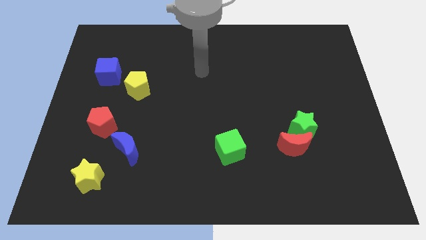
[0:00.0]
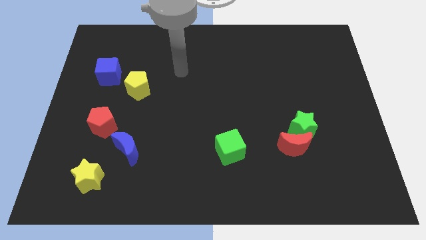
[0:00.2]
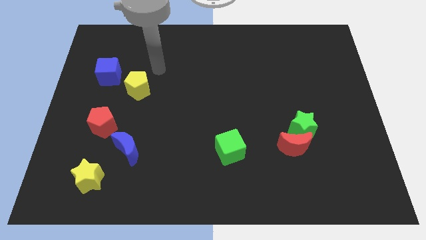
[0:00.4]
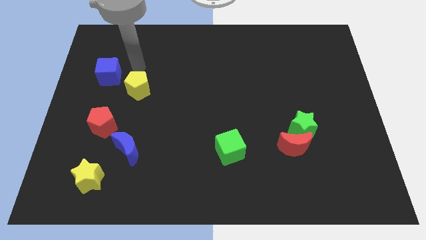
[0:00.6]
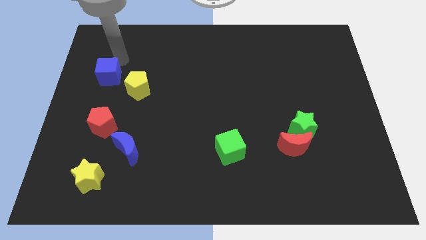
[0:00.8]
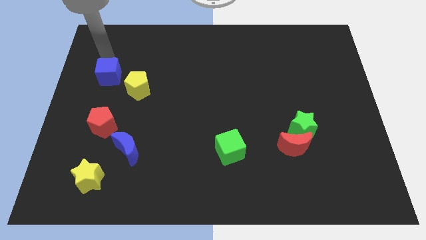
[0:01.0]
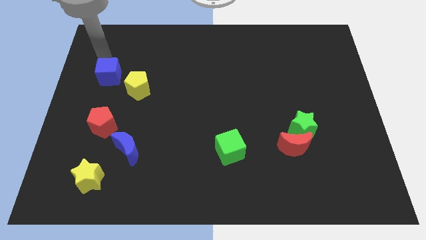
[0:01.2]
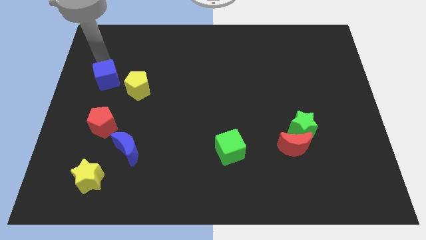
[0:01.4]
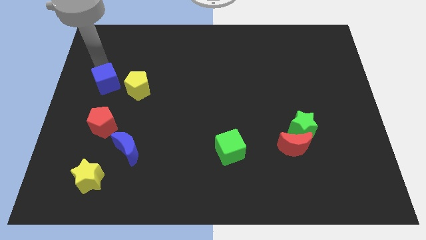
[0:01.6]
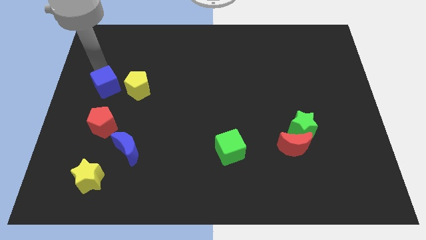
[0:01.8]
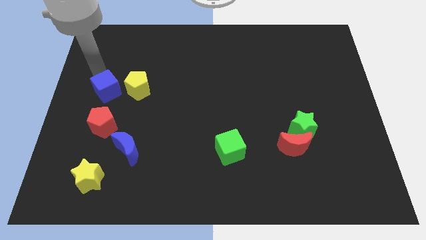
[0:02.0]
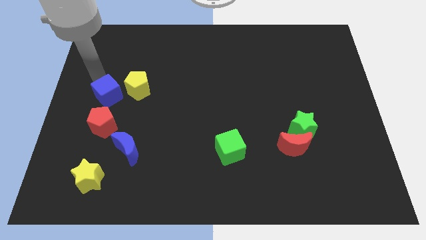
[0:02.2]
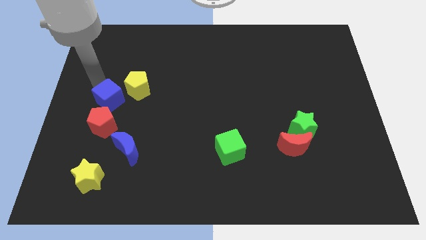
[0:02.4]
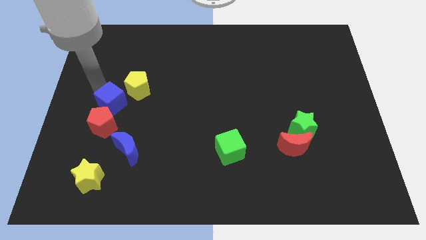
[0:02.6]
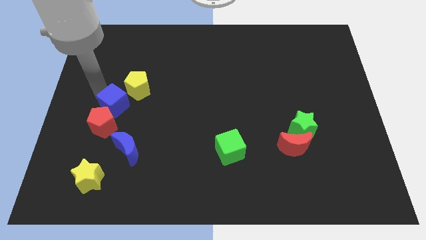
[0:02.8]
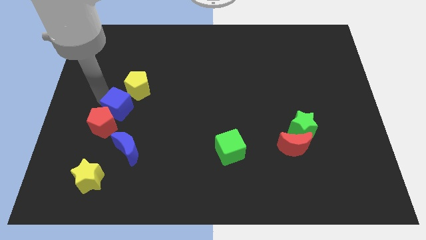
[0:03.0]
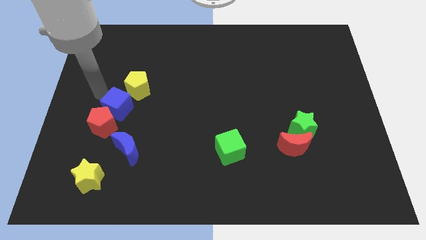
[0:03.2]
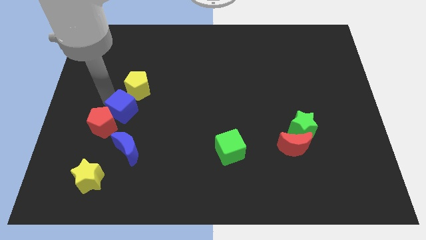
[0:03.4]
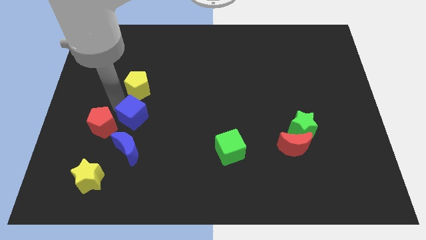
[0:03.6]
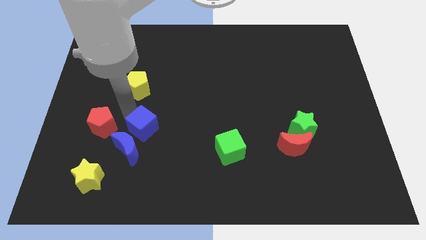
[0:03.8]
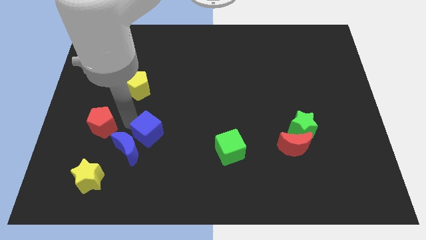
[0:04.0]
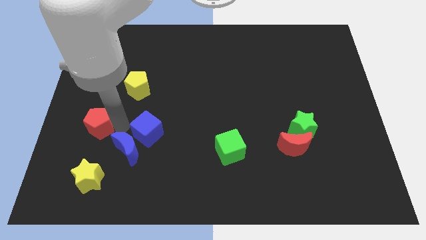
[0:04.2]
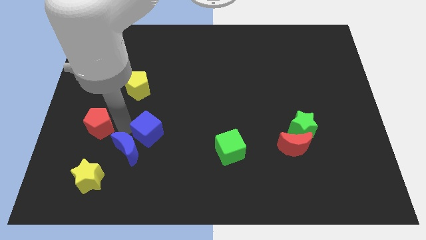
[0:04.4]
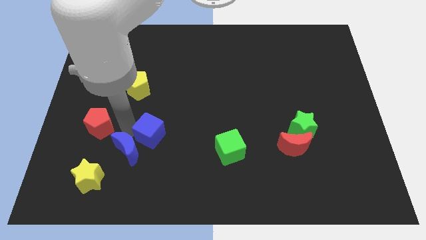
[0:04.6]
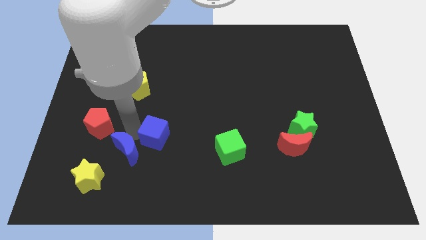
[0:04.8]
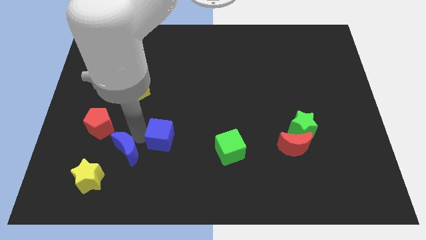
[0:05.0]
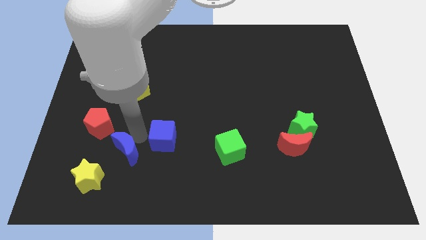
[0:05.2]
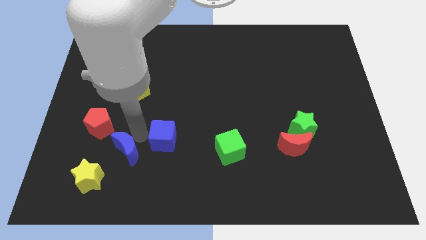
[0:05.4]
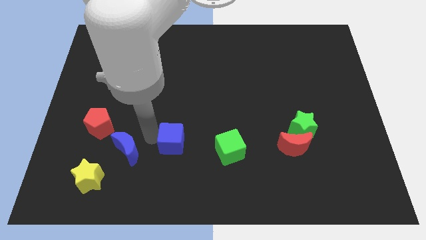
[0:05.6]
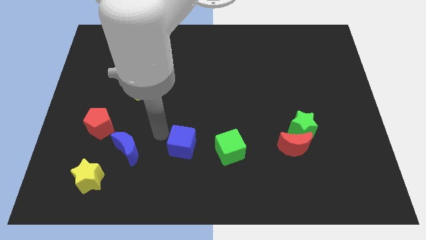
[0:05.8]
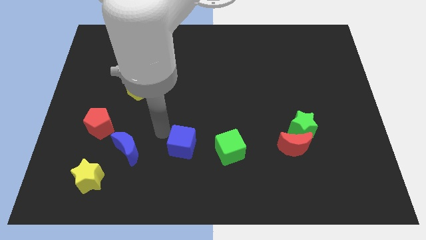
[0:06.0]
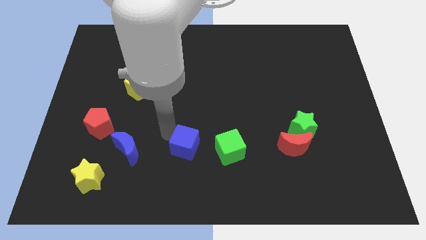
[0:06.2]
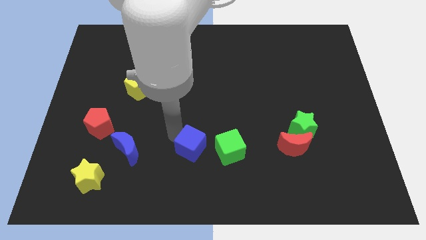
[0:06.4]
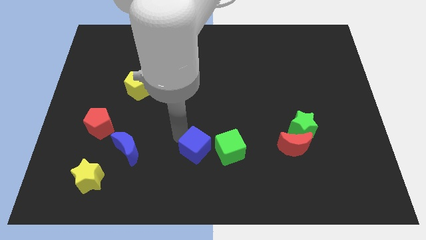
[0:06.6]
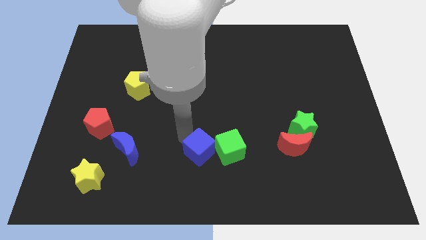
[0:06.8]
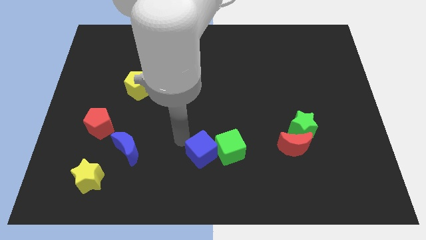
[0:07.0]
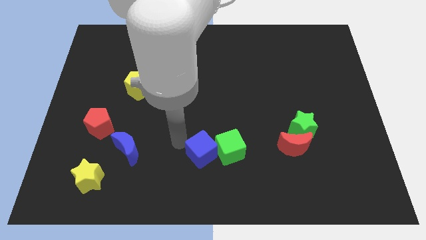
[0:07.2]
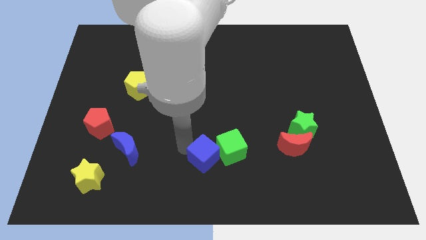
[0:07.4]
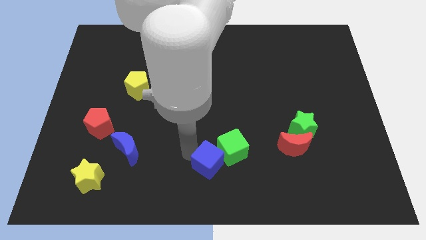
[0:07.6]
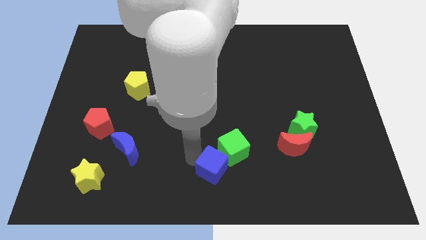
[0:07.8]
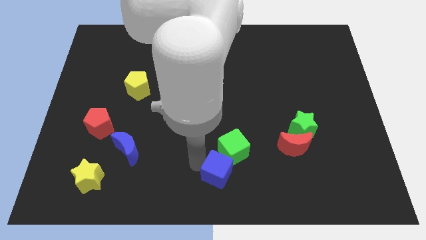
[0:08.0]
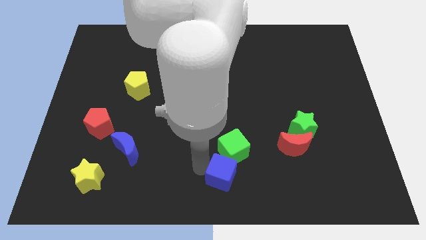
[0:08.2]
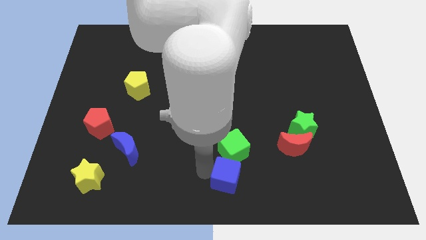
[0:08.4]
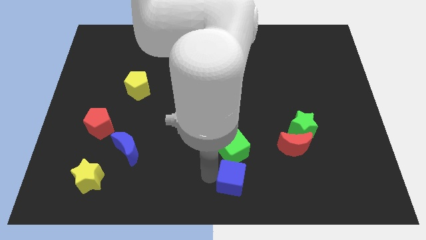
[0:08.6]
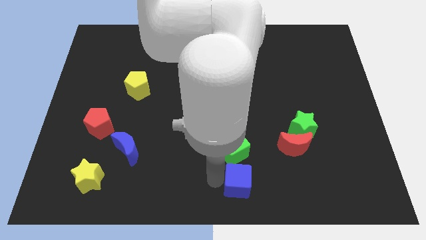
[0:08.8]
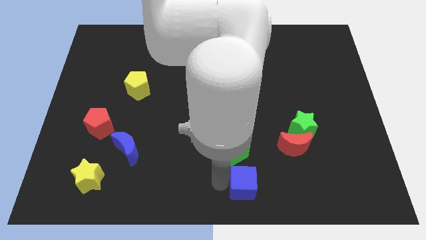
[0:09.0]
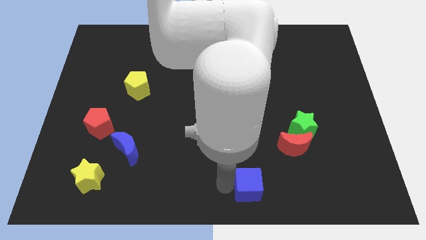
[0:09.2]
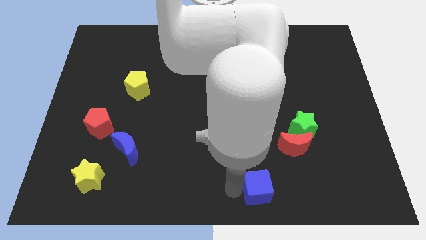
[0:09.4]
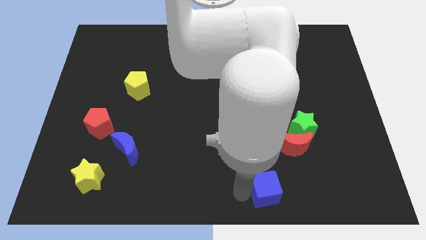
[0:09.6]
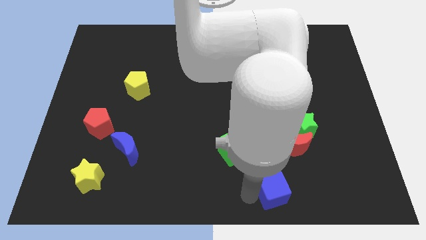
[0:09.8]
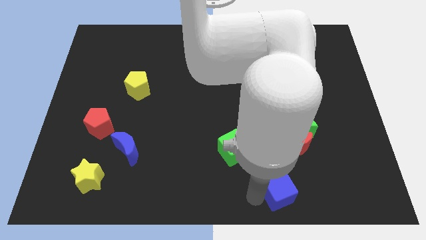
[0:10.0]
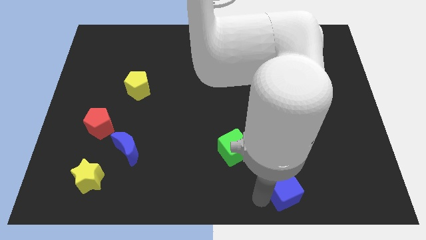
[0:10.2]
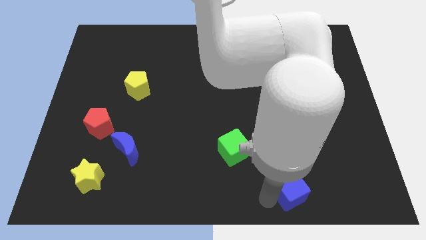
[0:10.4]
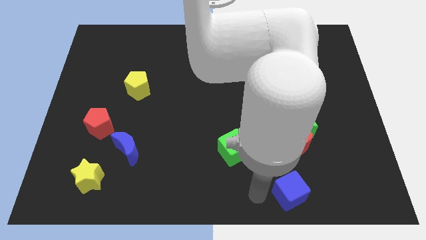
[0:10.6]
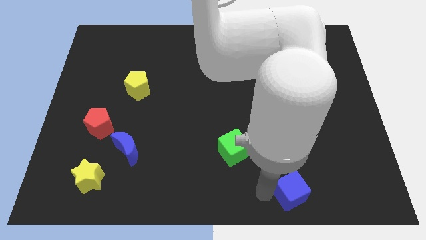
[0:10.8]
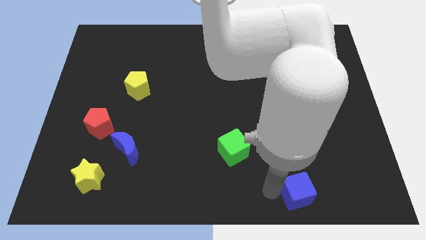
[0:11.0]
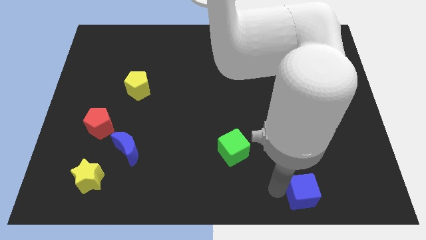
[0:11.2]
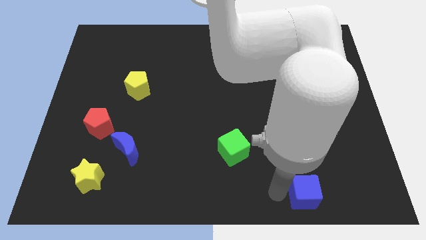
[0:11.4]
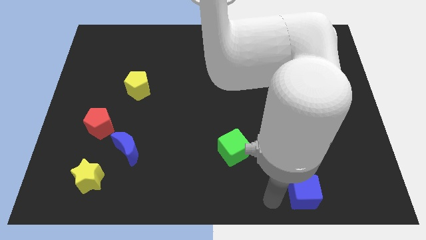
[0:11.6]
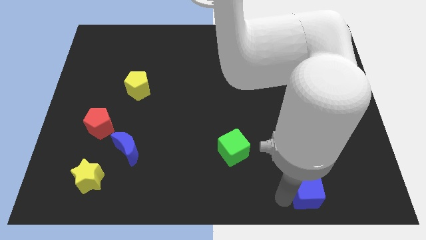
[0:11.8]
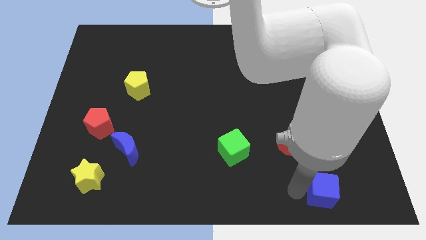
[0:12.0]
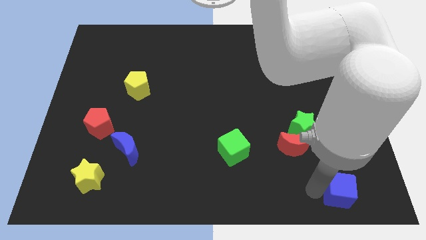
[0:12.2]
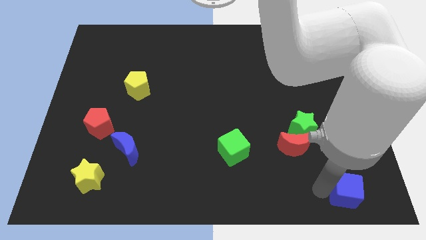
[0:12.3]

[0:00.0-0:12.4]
slide the blue cube to the bottom right of the board

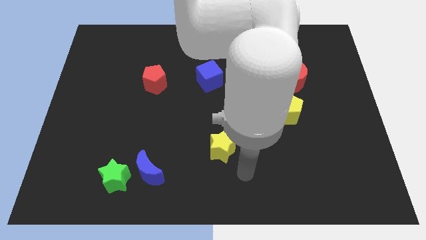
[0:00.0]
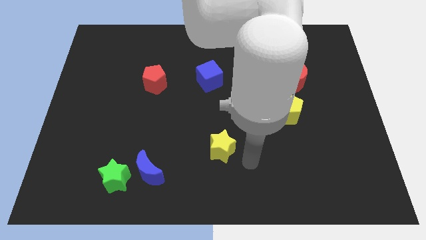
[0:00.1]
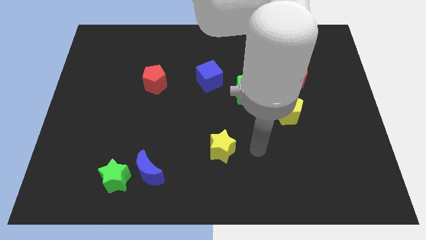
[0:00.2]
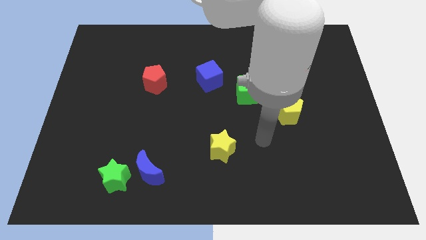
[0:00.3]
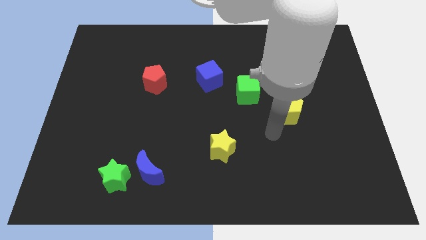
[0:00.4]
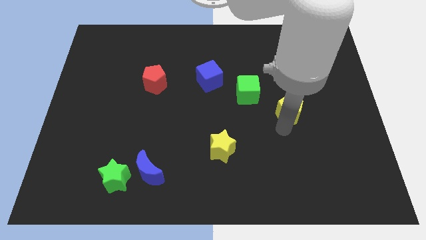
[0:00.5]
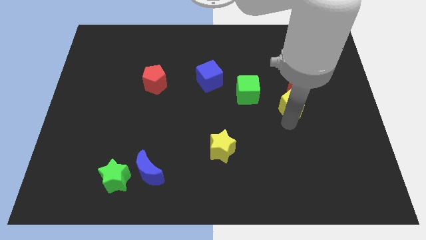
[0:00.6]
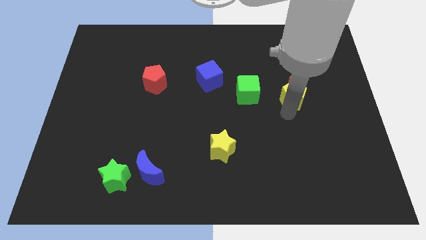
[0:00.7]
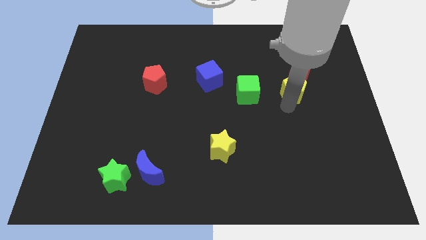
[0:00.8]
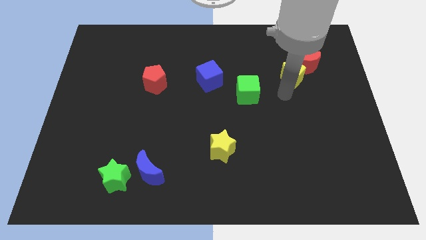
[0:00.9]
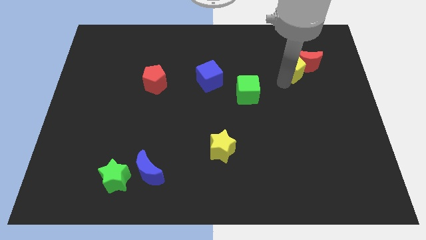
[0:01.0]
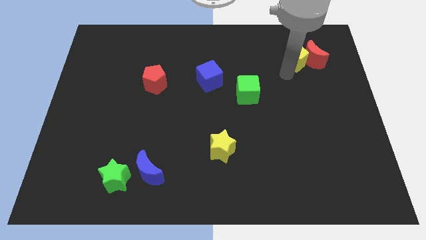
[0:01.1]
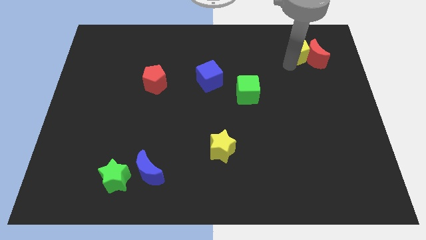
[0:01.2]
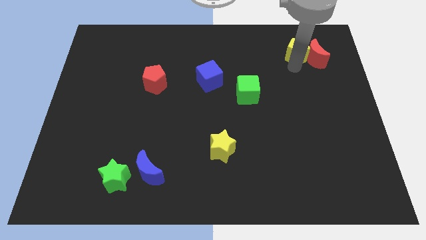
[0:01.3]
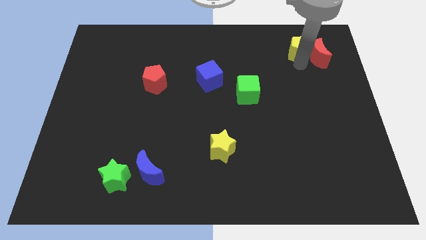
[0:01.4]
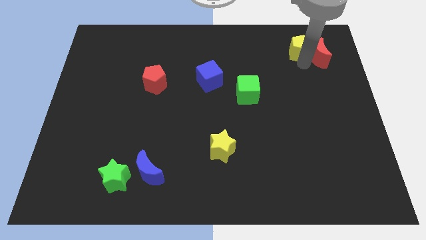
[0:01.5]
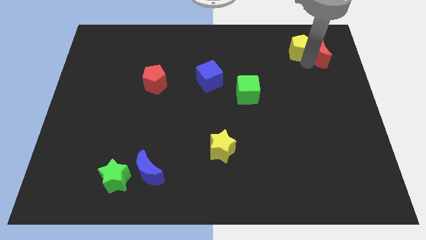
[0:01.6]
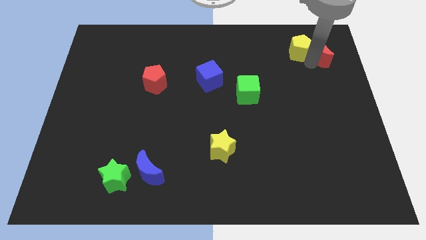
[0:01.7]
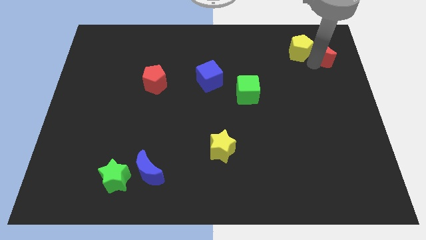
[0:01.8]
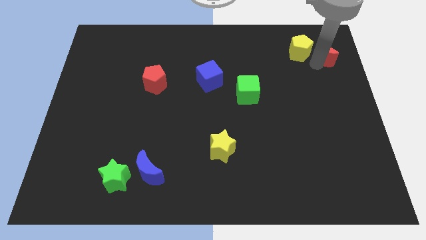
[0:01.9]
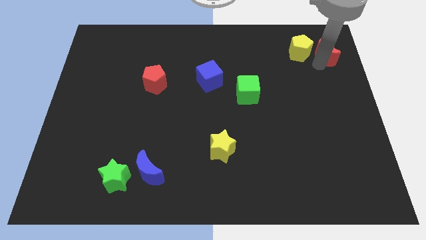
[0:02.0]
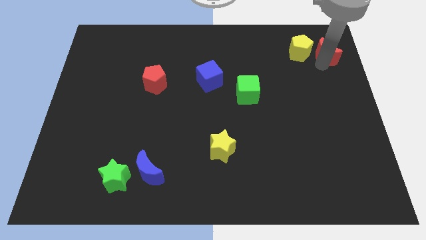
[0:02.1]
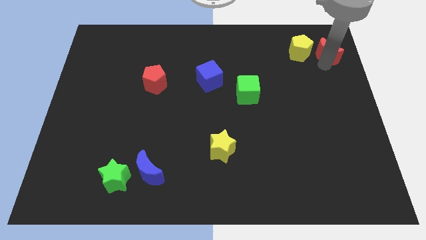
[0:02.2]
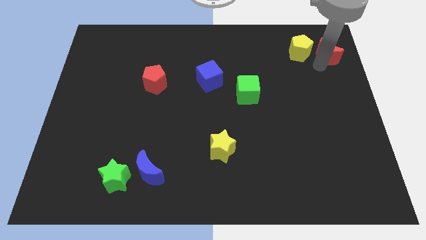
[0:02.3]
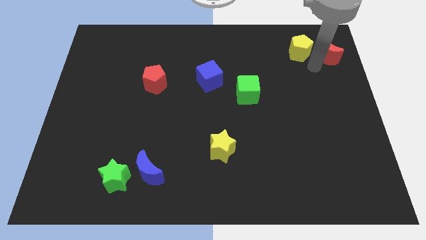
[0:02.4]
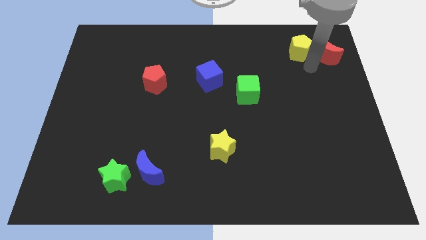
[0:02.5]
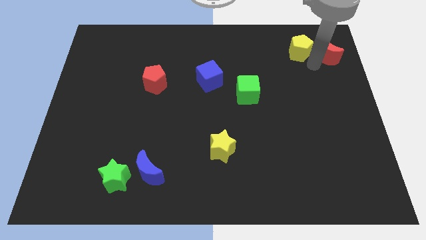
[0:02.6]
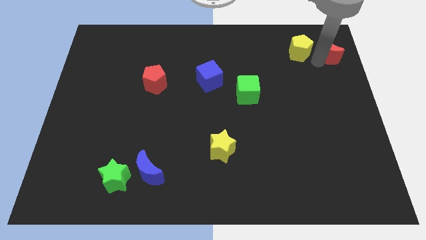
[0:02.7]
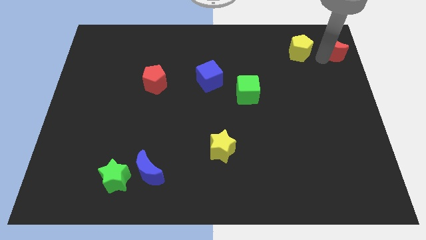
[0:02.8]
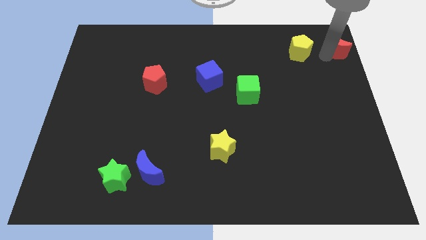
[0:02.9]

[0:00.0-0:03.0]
push the red moon to the upper right corner
